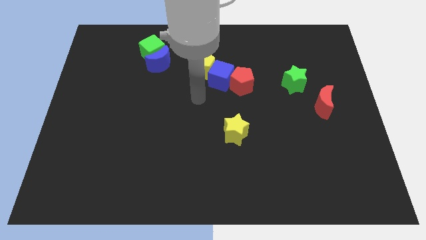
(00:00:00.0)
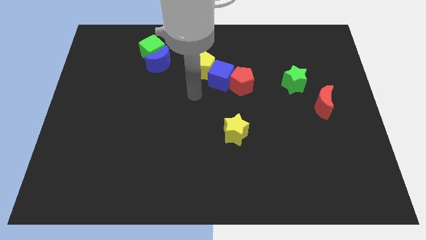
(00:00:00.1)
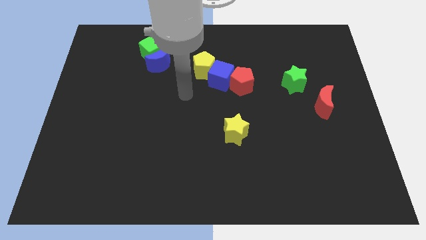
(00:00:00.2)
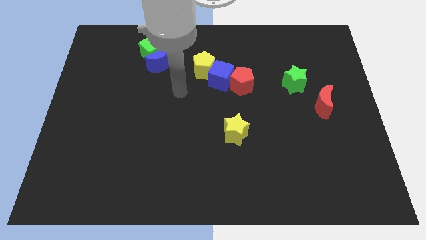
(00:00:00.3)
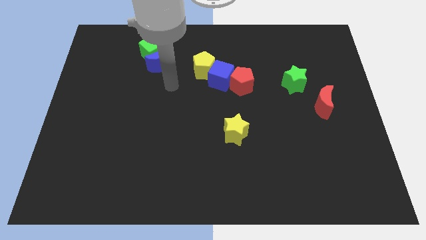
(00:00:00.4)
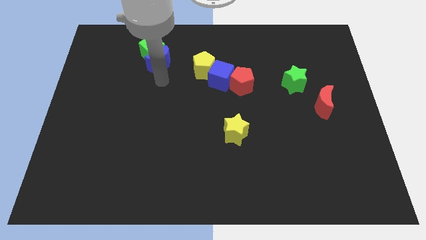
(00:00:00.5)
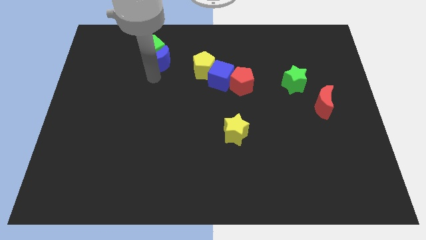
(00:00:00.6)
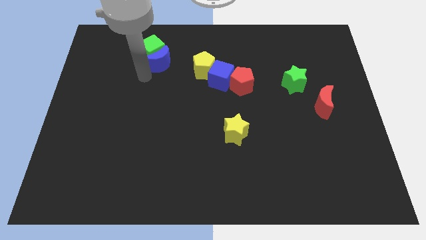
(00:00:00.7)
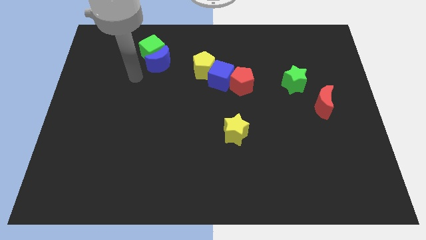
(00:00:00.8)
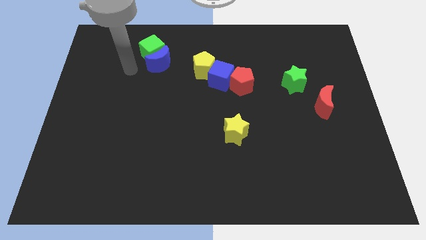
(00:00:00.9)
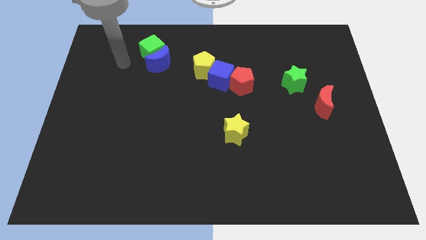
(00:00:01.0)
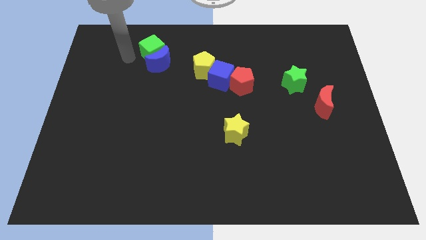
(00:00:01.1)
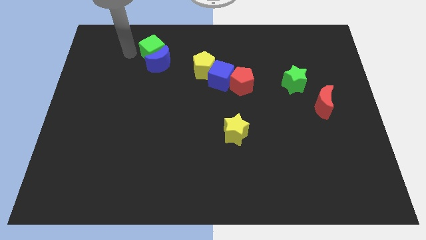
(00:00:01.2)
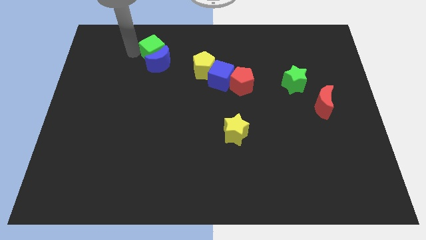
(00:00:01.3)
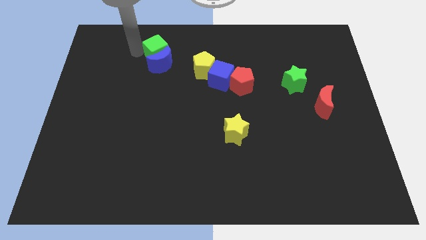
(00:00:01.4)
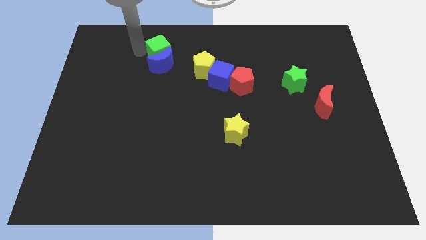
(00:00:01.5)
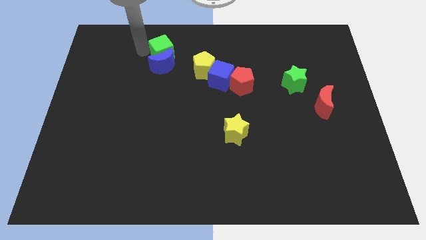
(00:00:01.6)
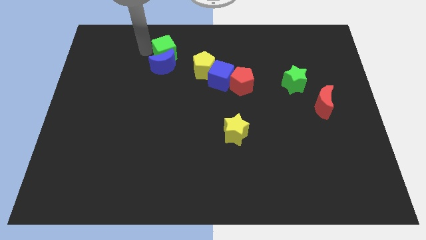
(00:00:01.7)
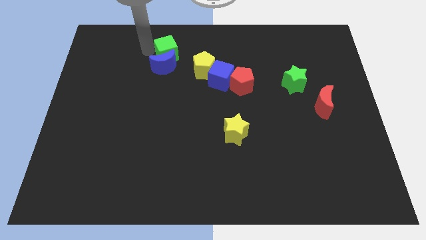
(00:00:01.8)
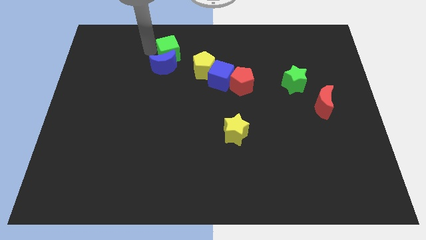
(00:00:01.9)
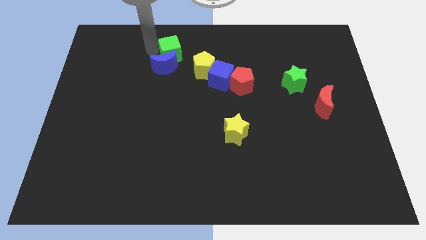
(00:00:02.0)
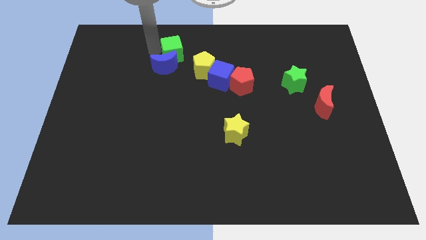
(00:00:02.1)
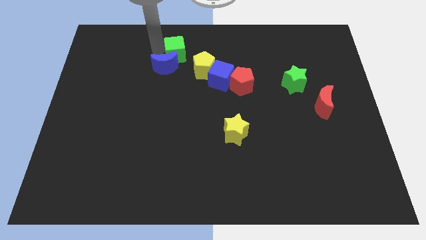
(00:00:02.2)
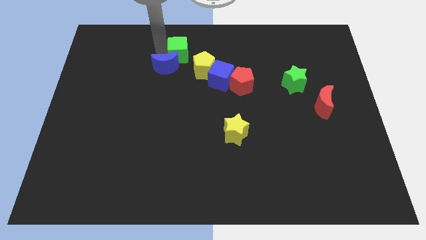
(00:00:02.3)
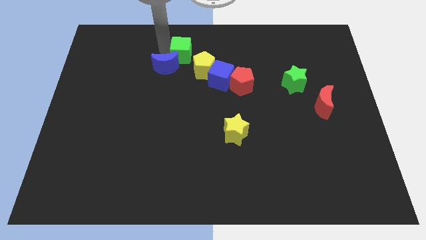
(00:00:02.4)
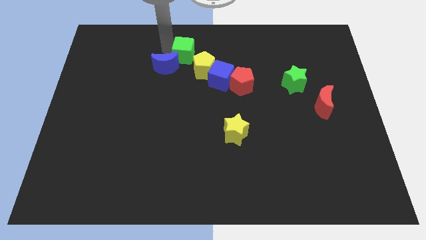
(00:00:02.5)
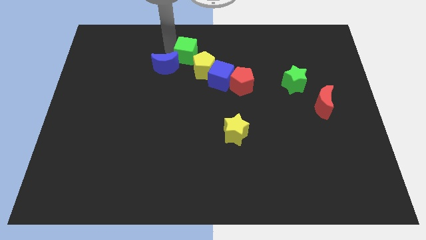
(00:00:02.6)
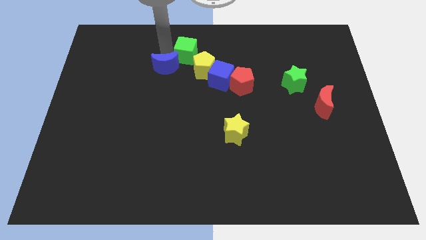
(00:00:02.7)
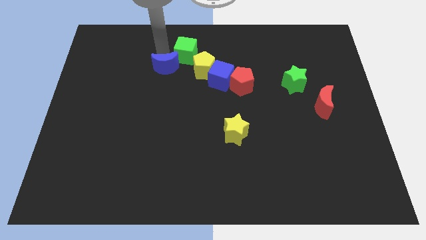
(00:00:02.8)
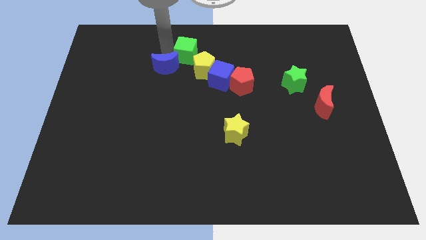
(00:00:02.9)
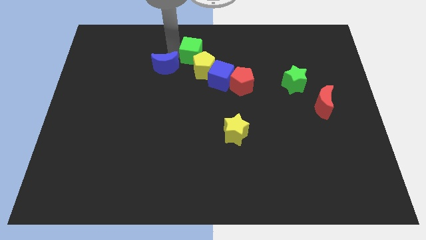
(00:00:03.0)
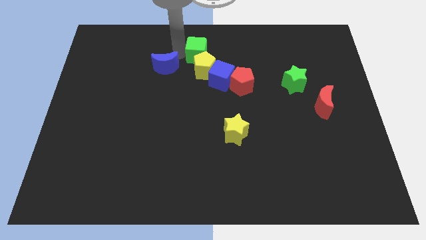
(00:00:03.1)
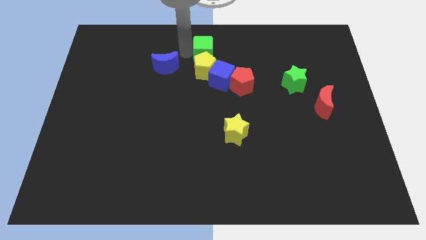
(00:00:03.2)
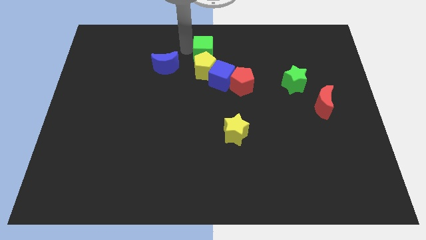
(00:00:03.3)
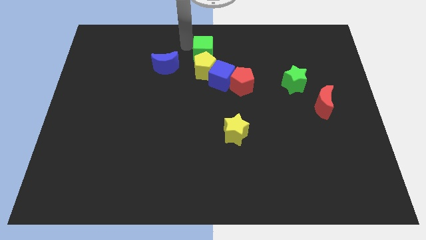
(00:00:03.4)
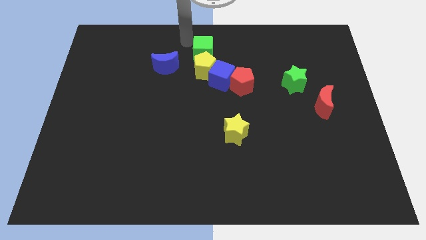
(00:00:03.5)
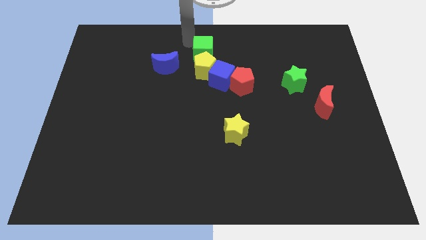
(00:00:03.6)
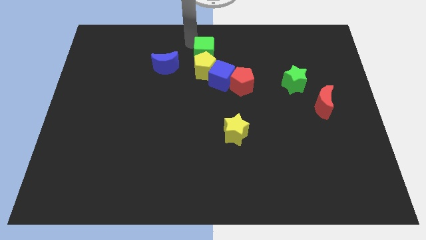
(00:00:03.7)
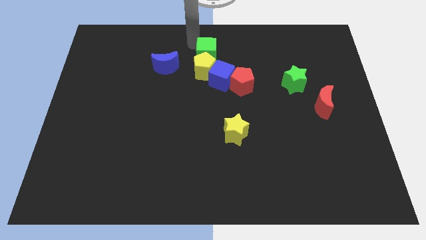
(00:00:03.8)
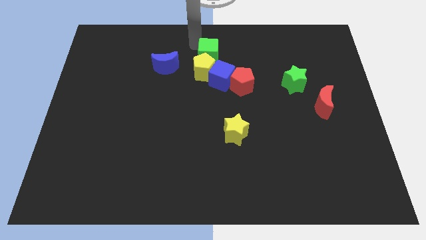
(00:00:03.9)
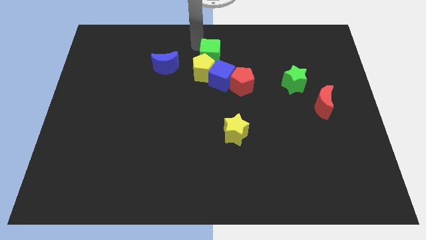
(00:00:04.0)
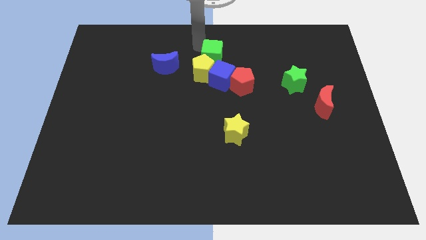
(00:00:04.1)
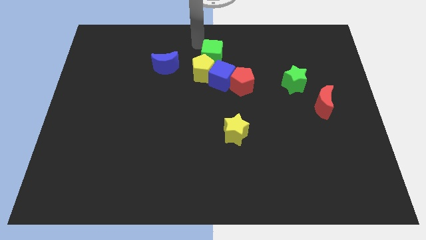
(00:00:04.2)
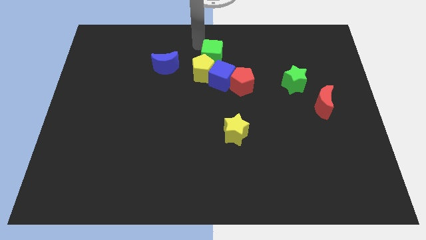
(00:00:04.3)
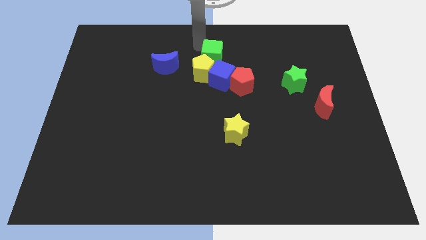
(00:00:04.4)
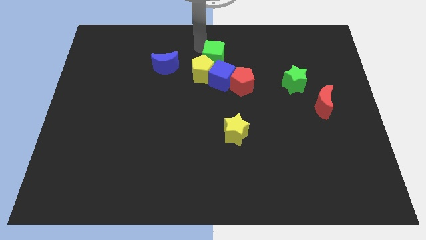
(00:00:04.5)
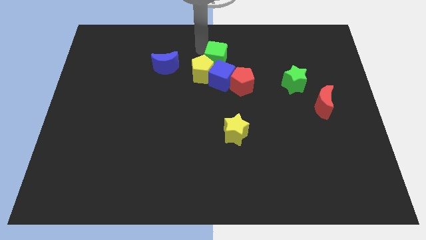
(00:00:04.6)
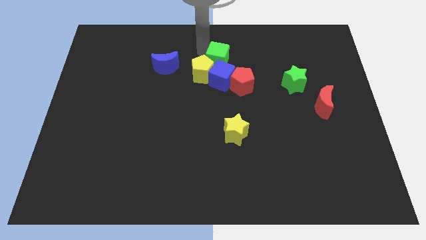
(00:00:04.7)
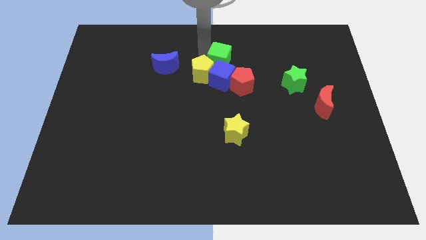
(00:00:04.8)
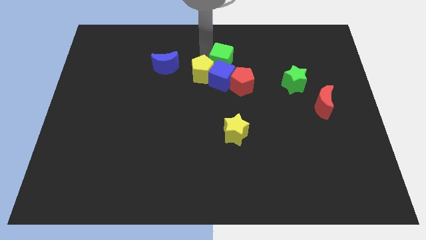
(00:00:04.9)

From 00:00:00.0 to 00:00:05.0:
put the green cube close to the blue cube

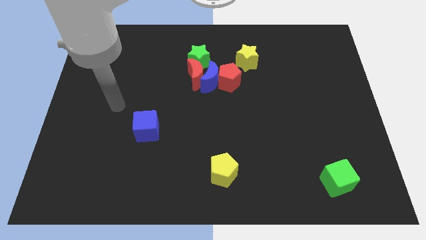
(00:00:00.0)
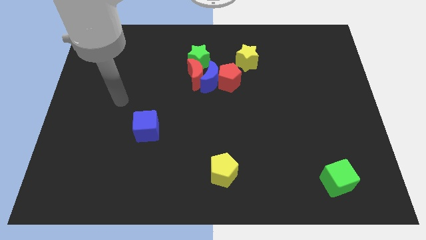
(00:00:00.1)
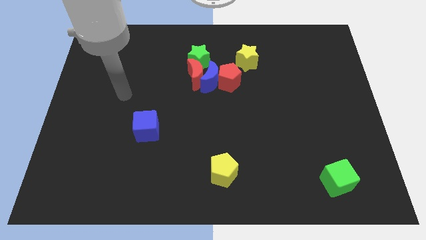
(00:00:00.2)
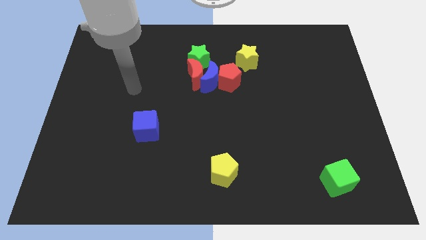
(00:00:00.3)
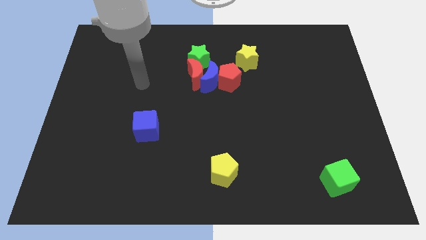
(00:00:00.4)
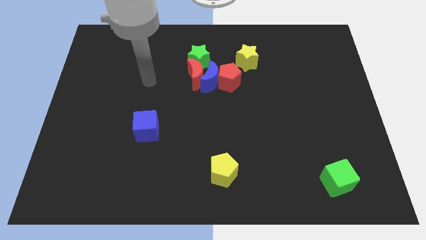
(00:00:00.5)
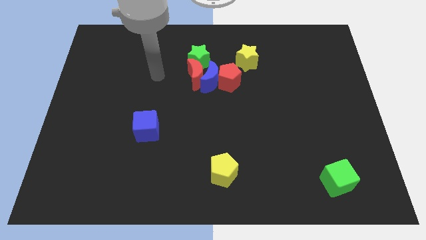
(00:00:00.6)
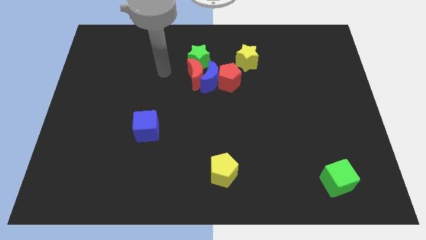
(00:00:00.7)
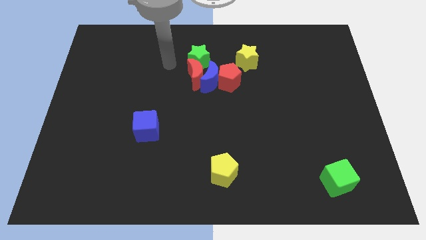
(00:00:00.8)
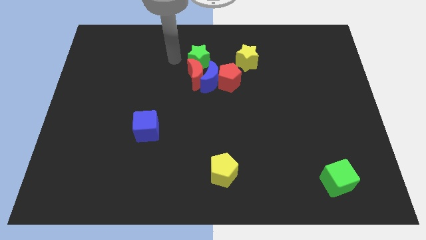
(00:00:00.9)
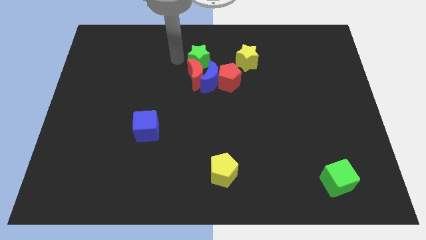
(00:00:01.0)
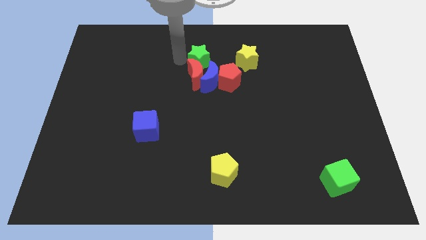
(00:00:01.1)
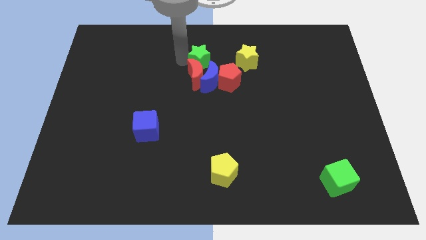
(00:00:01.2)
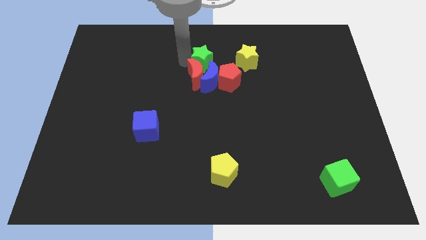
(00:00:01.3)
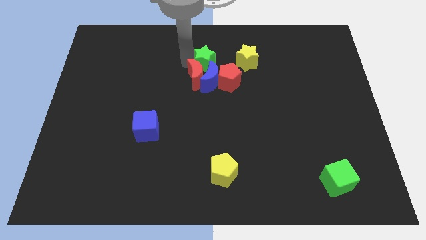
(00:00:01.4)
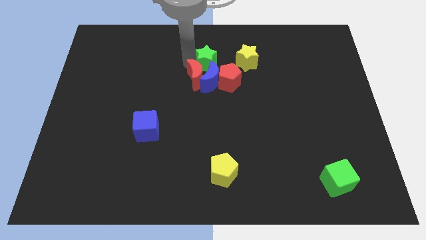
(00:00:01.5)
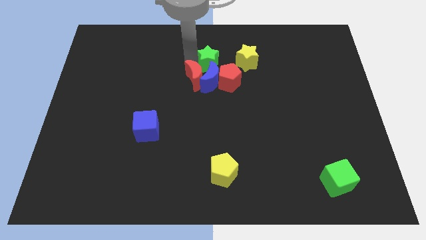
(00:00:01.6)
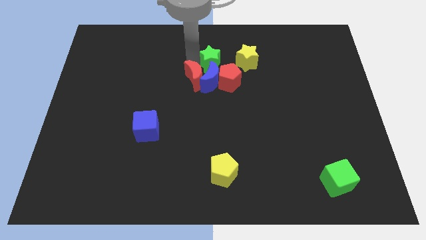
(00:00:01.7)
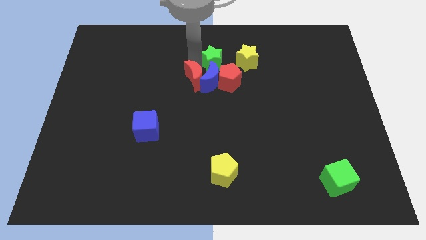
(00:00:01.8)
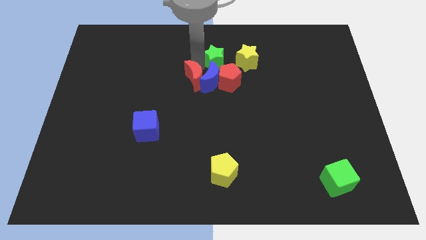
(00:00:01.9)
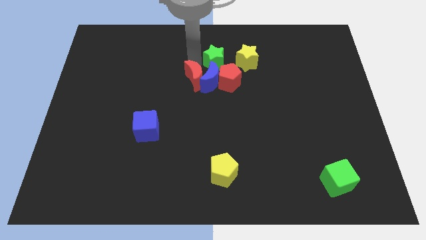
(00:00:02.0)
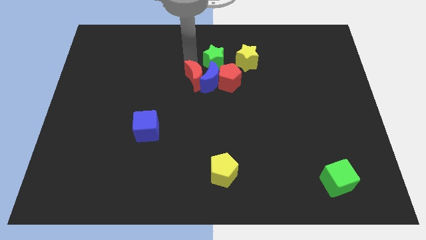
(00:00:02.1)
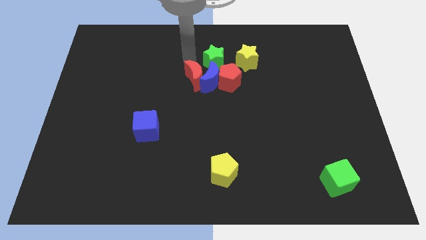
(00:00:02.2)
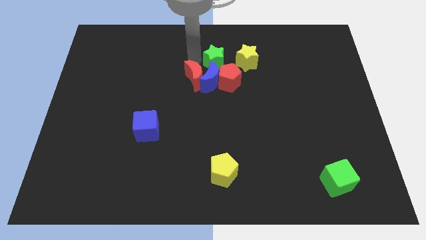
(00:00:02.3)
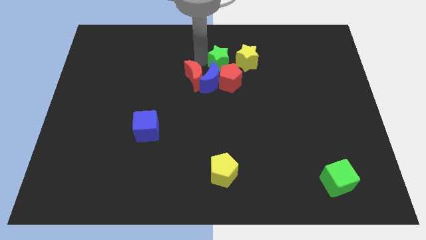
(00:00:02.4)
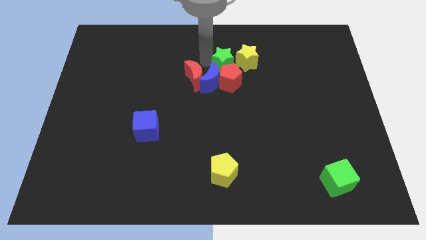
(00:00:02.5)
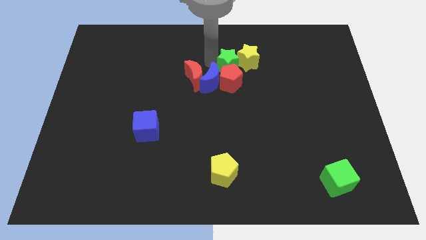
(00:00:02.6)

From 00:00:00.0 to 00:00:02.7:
move the green star close to the yellow star

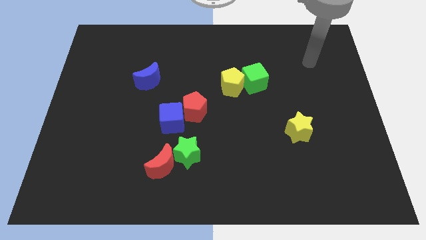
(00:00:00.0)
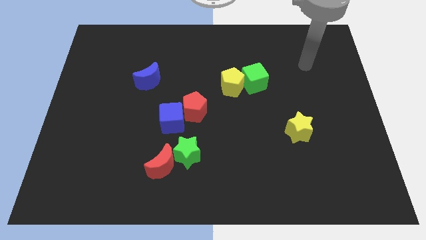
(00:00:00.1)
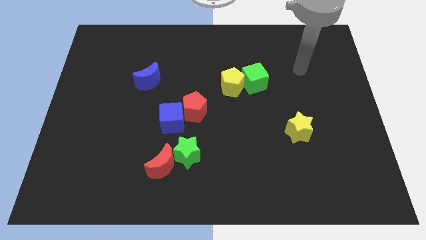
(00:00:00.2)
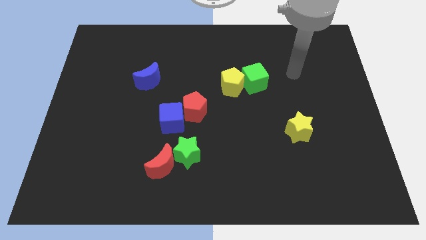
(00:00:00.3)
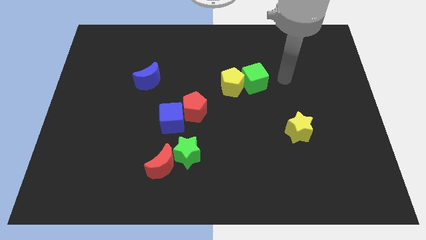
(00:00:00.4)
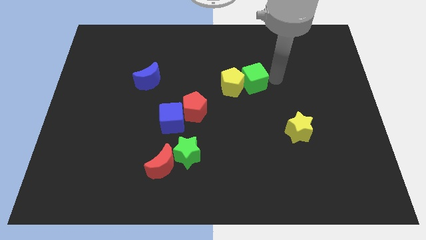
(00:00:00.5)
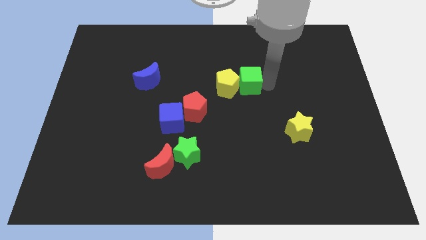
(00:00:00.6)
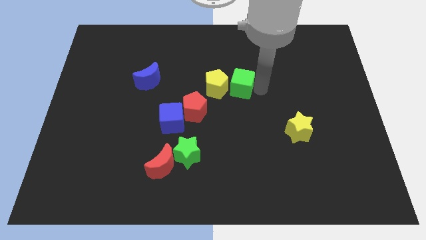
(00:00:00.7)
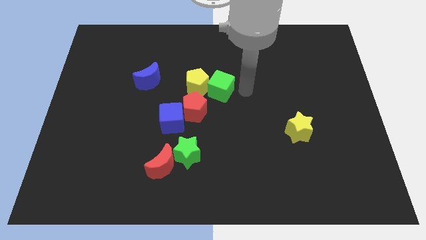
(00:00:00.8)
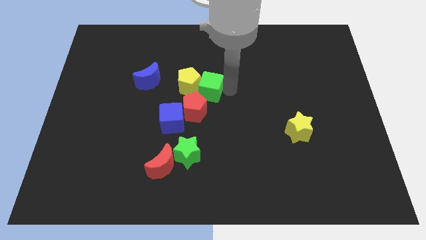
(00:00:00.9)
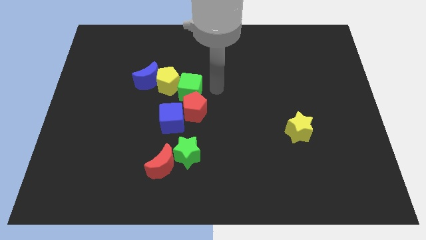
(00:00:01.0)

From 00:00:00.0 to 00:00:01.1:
slide the yellow pentagon towards the blue moon
